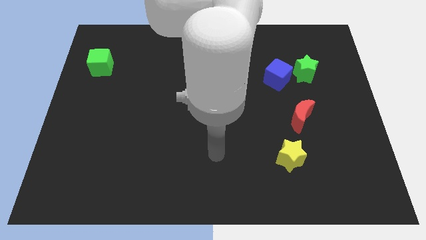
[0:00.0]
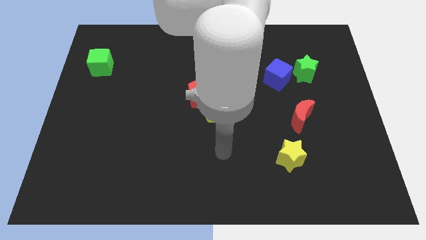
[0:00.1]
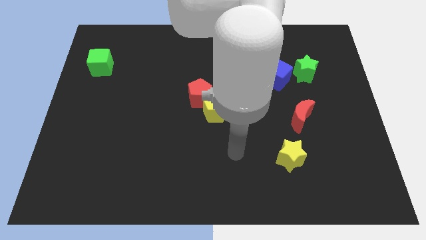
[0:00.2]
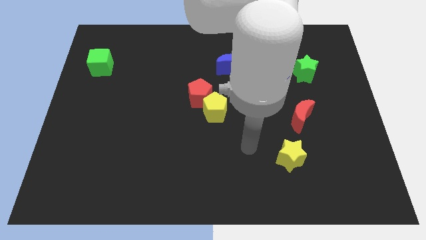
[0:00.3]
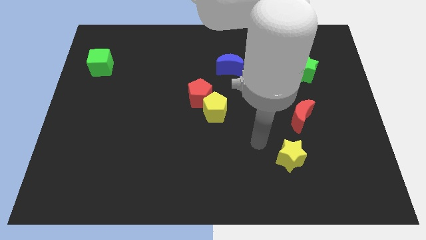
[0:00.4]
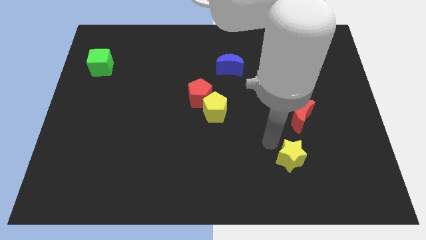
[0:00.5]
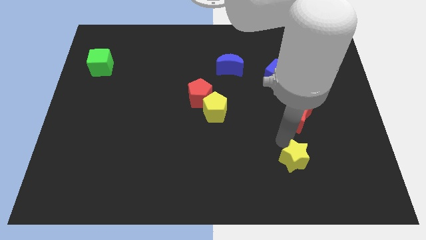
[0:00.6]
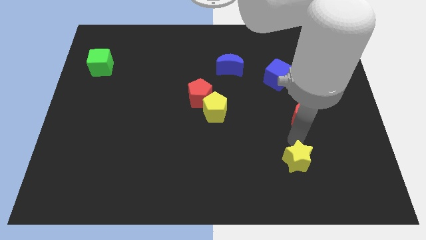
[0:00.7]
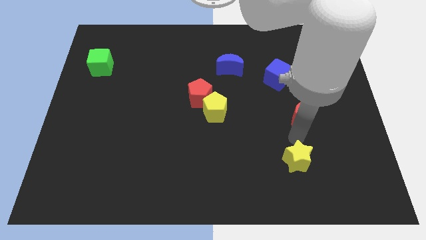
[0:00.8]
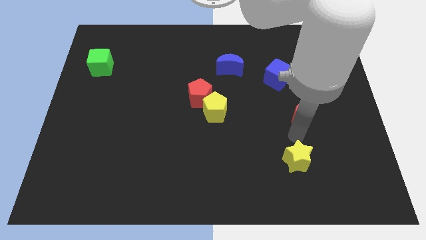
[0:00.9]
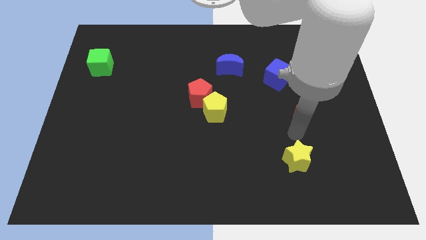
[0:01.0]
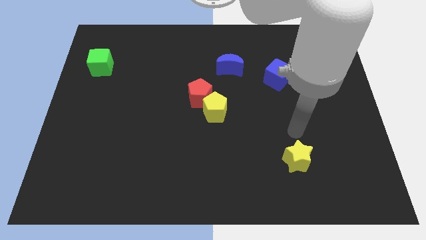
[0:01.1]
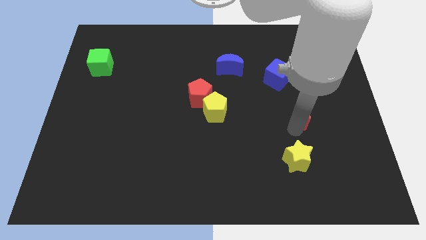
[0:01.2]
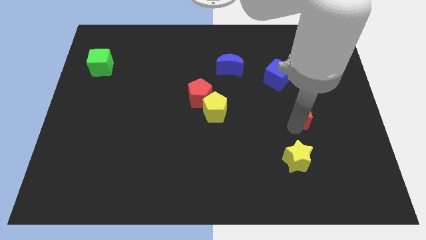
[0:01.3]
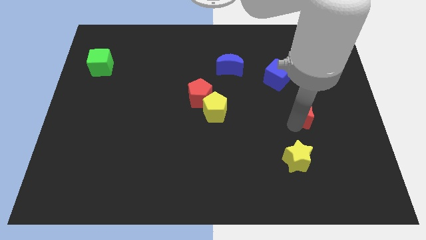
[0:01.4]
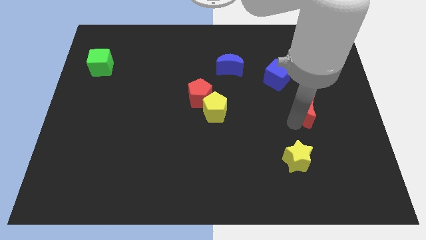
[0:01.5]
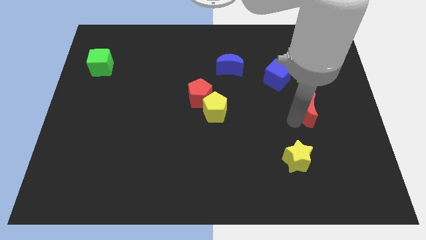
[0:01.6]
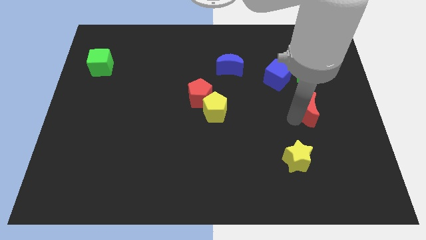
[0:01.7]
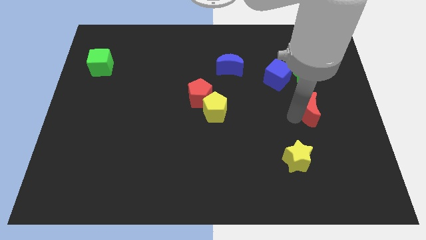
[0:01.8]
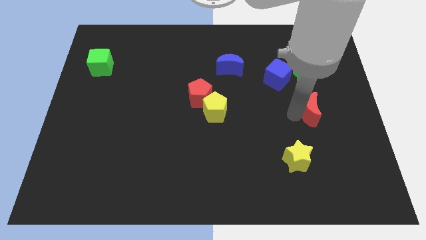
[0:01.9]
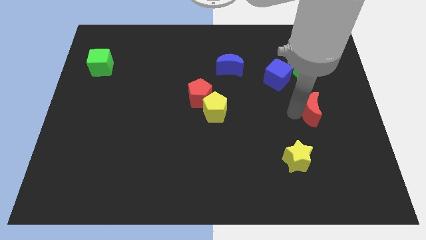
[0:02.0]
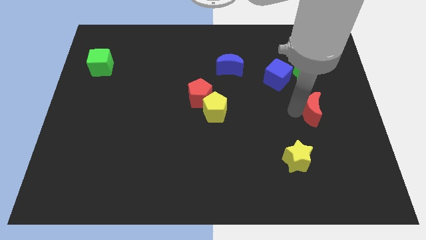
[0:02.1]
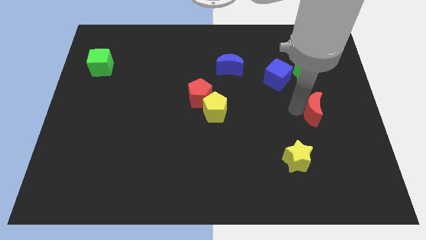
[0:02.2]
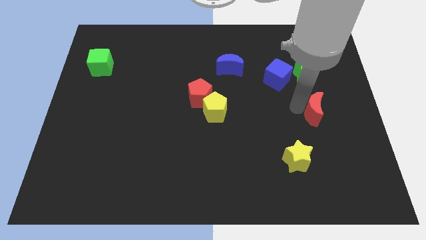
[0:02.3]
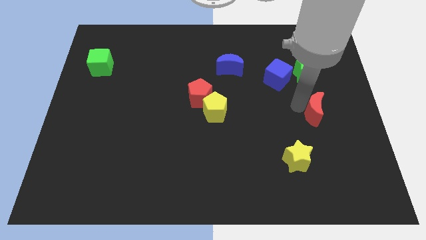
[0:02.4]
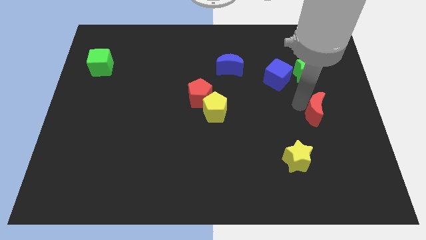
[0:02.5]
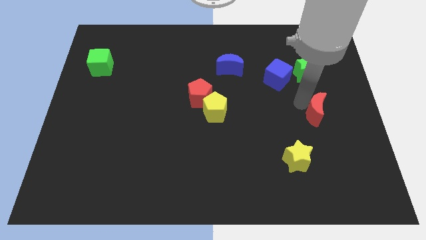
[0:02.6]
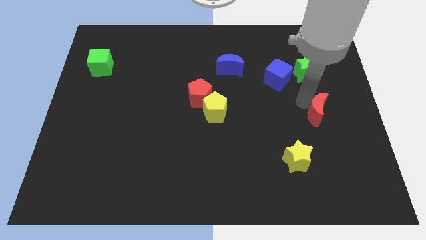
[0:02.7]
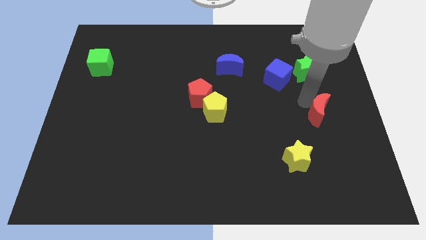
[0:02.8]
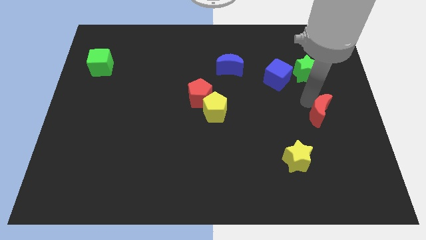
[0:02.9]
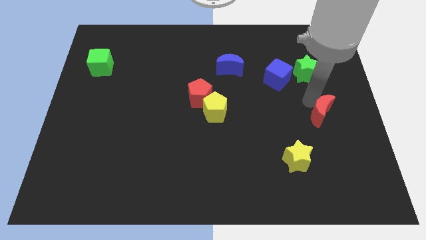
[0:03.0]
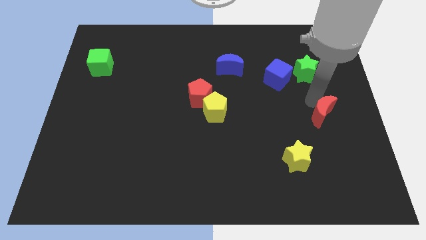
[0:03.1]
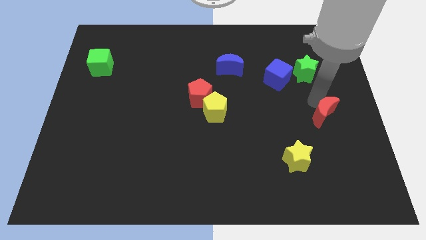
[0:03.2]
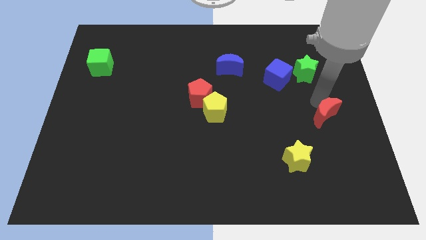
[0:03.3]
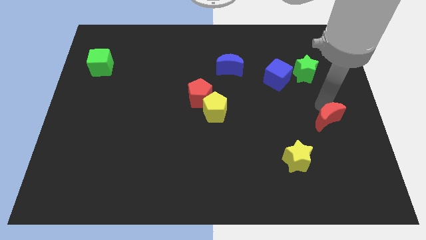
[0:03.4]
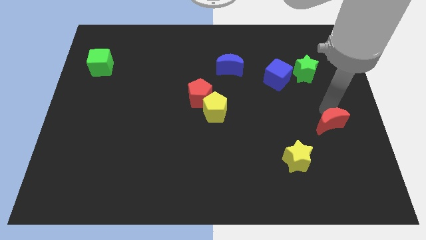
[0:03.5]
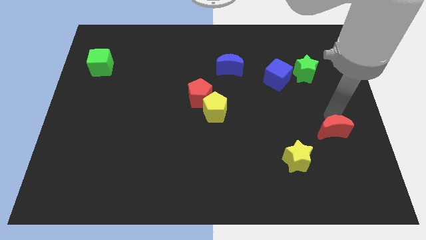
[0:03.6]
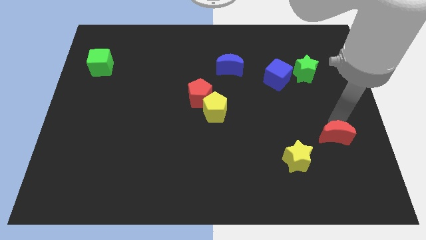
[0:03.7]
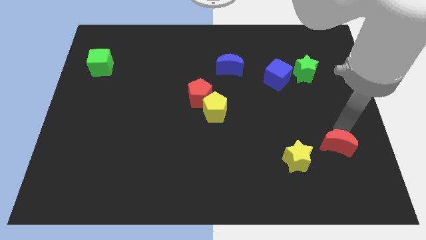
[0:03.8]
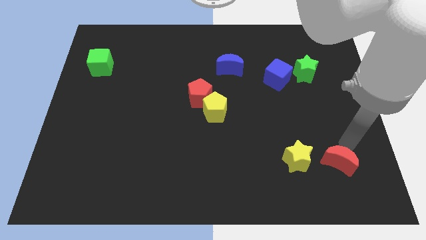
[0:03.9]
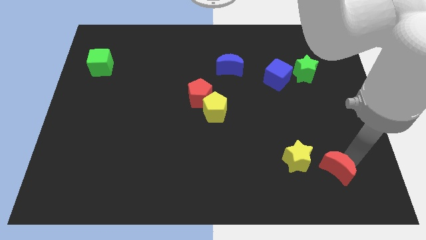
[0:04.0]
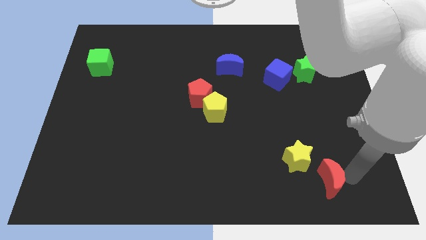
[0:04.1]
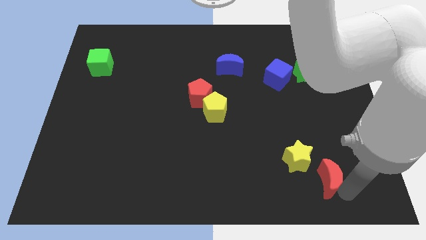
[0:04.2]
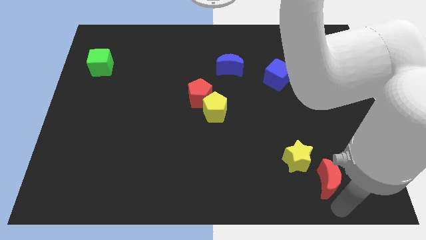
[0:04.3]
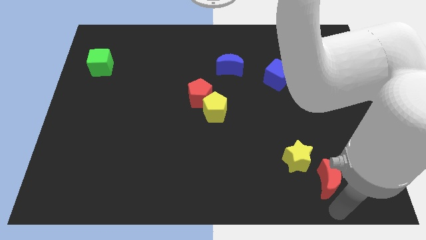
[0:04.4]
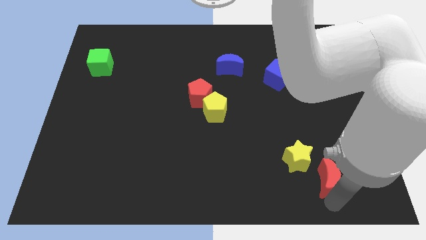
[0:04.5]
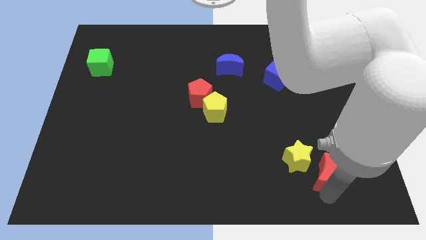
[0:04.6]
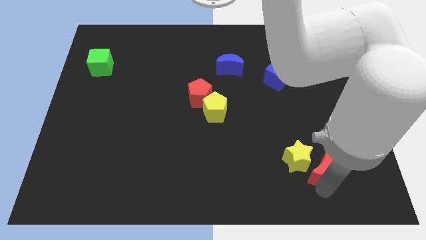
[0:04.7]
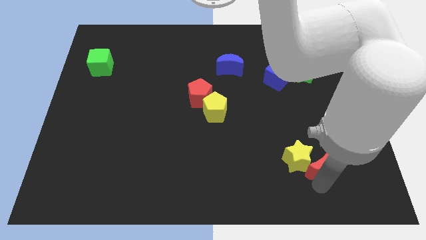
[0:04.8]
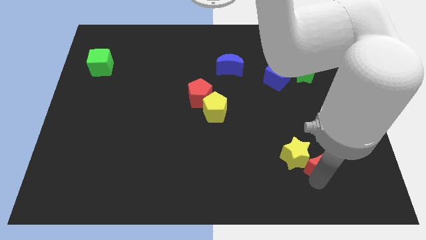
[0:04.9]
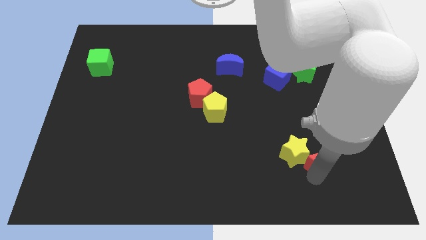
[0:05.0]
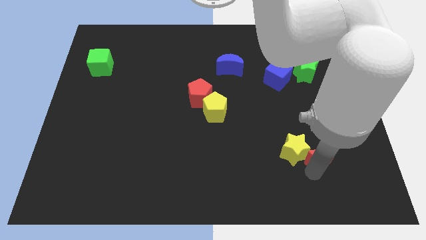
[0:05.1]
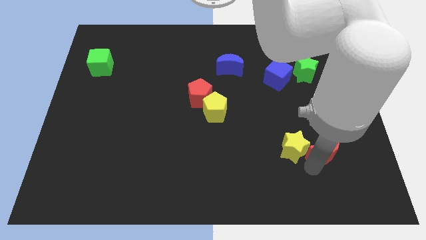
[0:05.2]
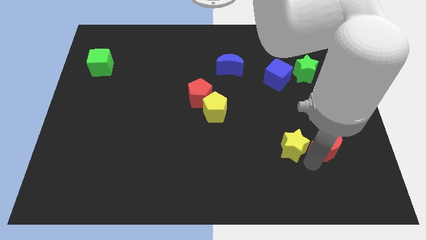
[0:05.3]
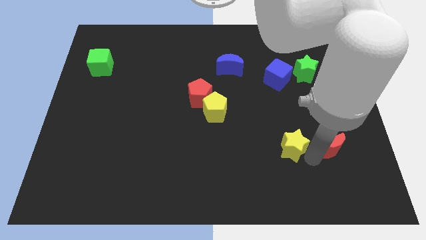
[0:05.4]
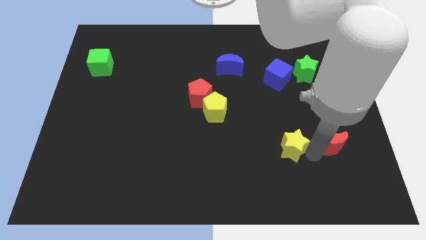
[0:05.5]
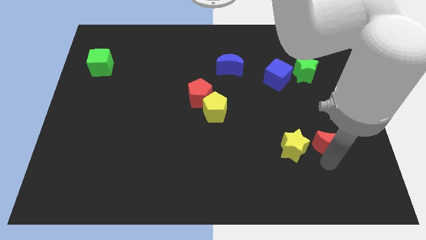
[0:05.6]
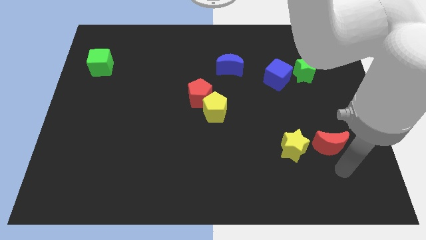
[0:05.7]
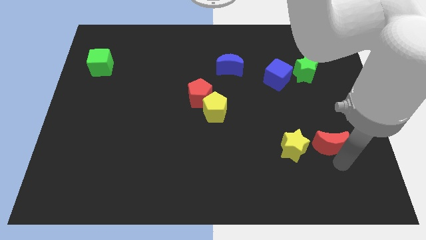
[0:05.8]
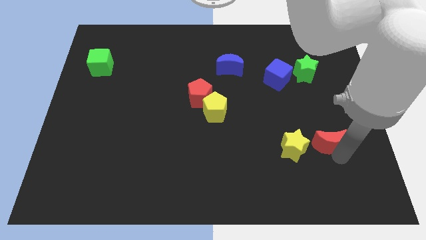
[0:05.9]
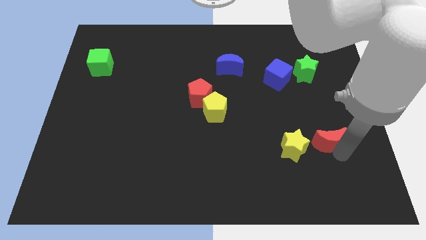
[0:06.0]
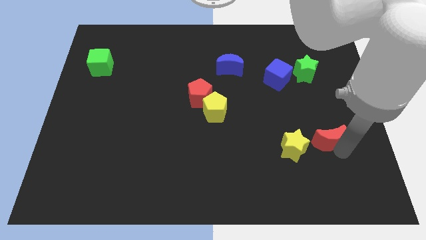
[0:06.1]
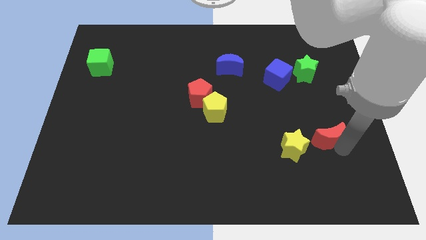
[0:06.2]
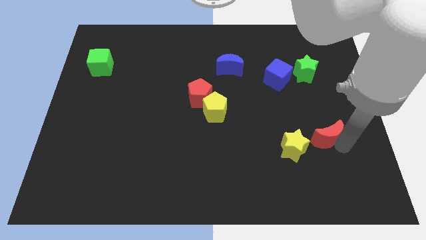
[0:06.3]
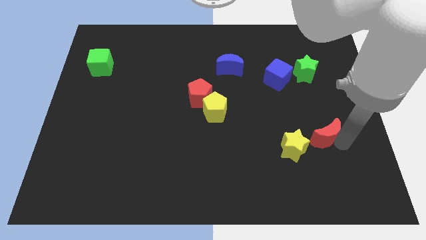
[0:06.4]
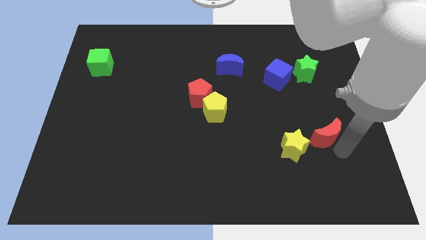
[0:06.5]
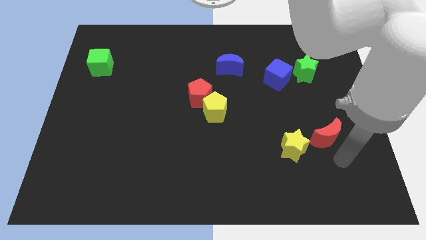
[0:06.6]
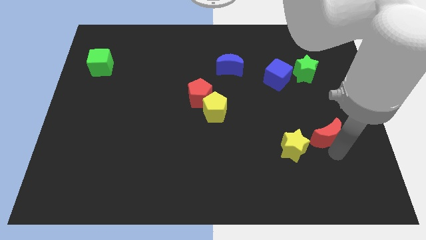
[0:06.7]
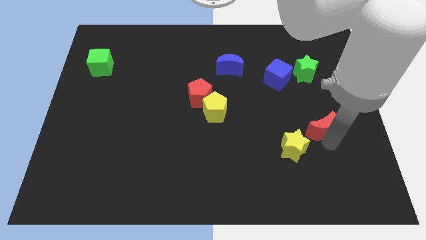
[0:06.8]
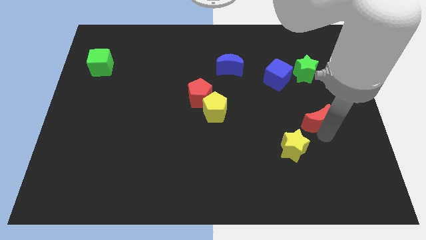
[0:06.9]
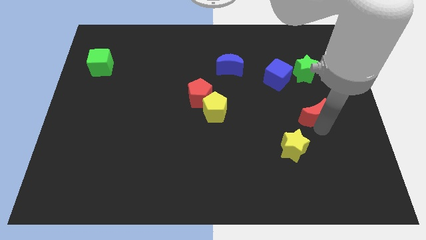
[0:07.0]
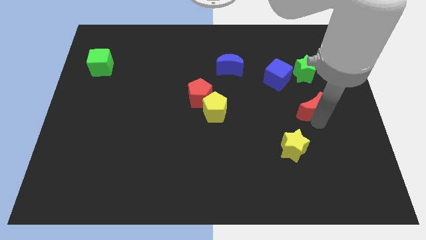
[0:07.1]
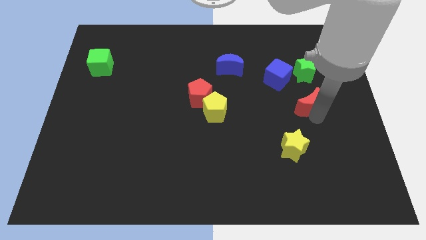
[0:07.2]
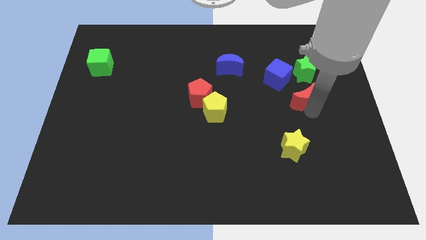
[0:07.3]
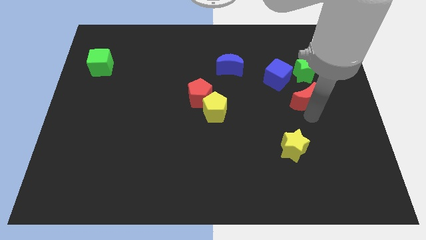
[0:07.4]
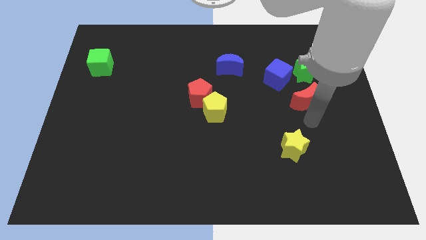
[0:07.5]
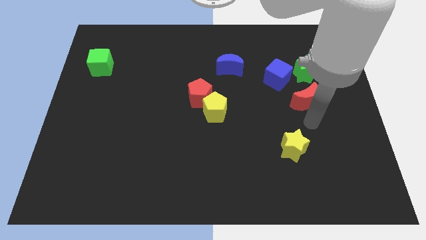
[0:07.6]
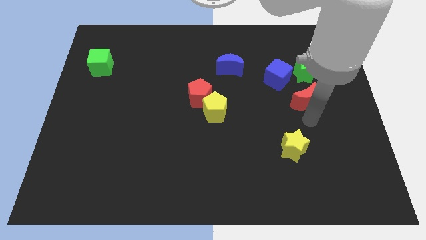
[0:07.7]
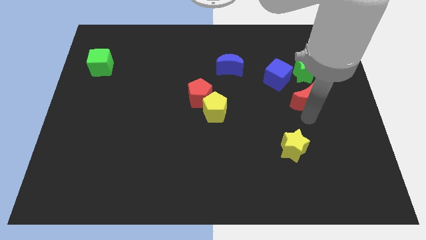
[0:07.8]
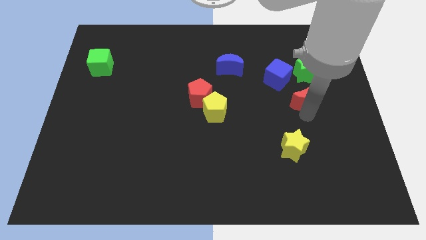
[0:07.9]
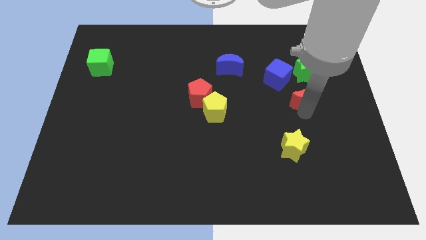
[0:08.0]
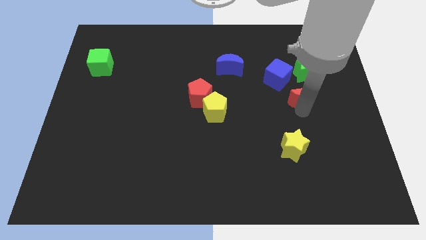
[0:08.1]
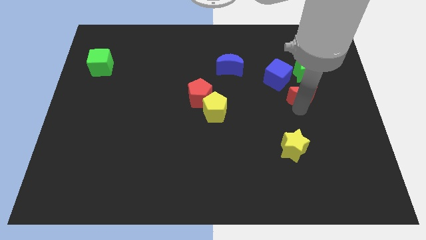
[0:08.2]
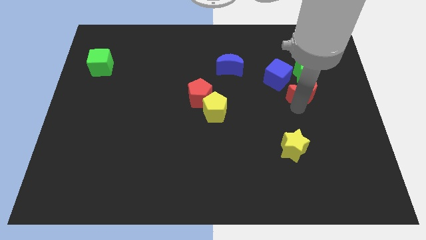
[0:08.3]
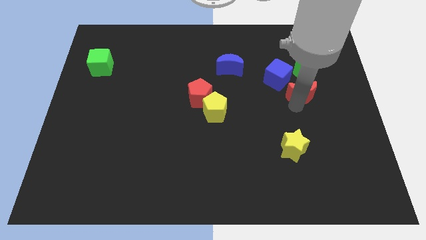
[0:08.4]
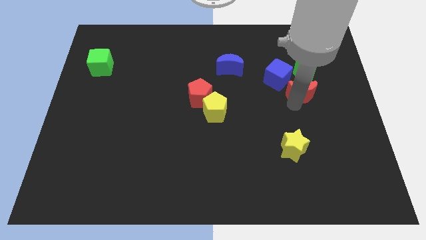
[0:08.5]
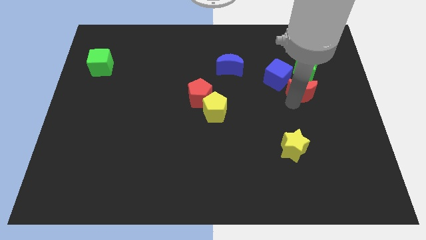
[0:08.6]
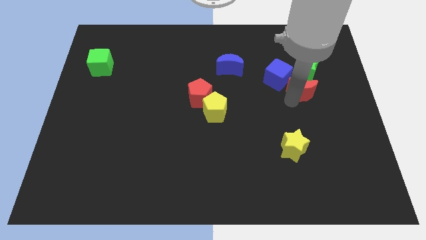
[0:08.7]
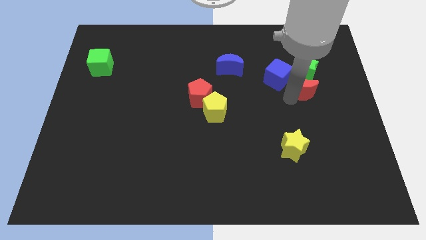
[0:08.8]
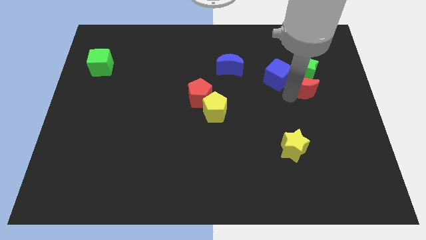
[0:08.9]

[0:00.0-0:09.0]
slide the red moon towards the green star
